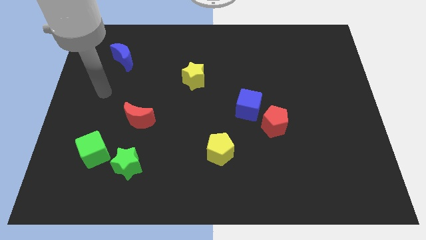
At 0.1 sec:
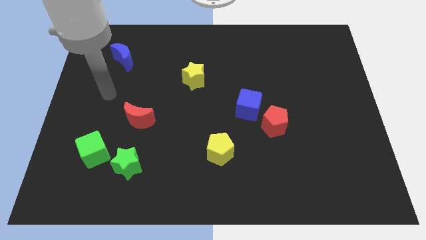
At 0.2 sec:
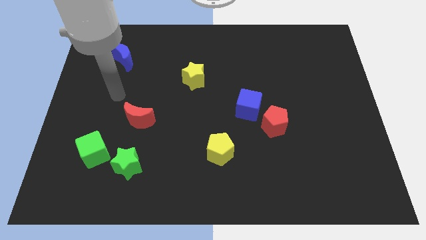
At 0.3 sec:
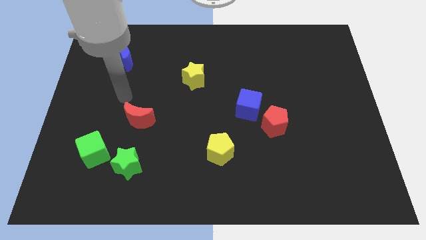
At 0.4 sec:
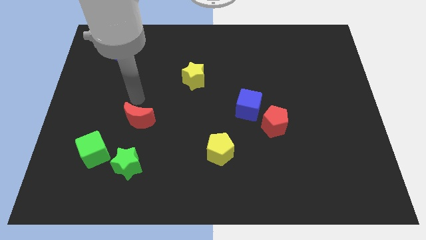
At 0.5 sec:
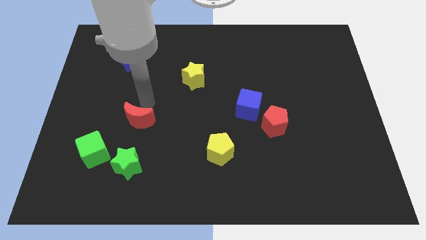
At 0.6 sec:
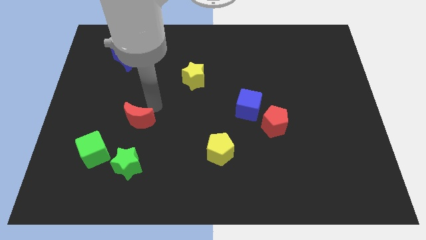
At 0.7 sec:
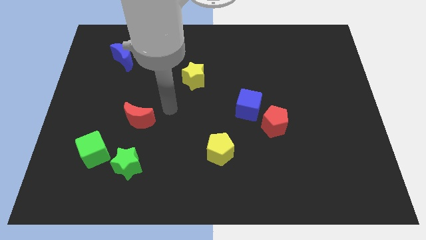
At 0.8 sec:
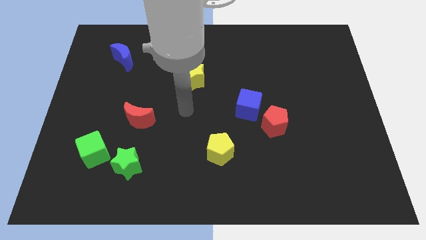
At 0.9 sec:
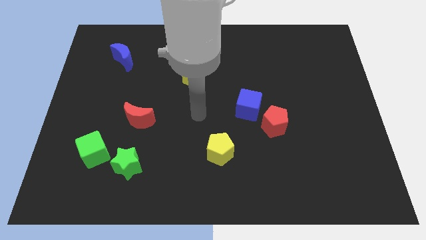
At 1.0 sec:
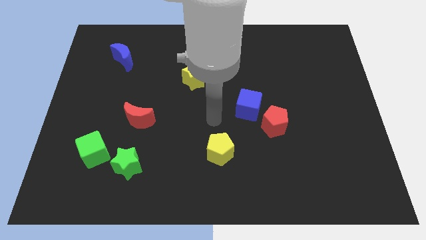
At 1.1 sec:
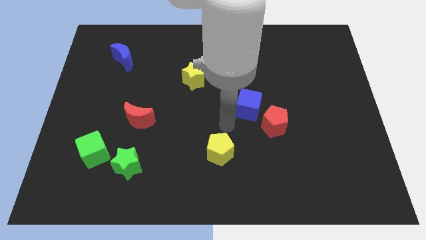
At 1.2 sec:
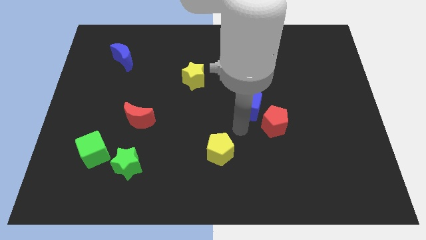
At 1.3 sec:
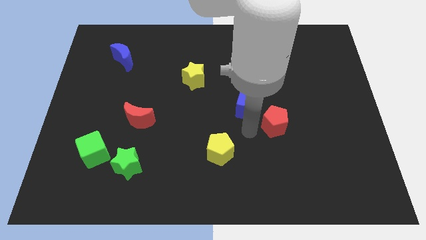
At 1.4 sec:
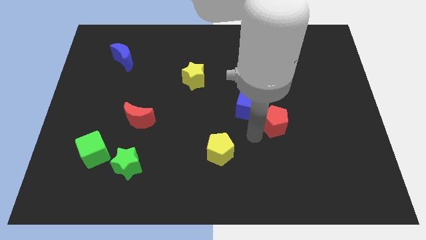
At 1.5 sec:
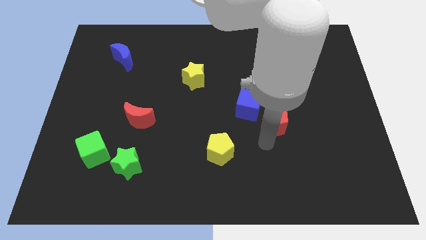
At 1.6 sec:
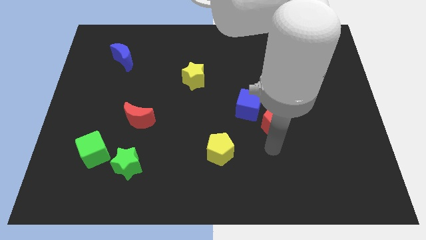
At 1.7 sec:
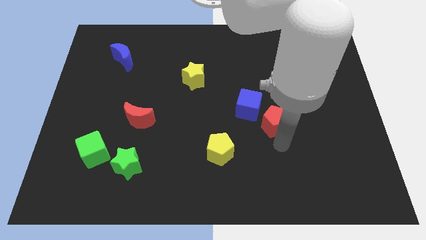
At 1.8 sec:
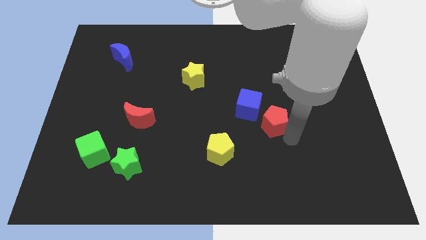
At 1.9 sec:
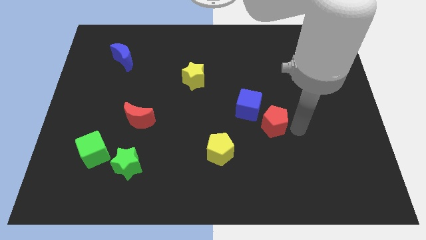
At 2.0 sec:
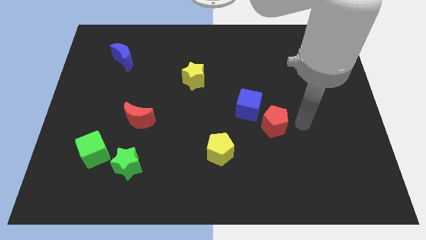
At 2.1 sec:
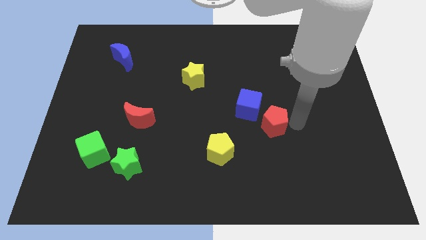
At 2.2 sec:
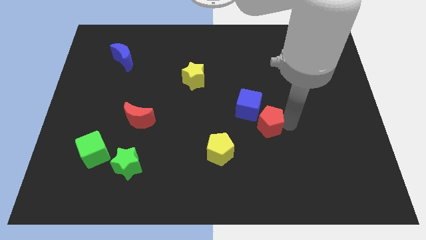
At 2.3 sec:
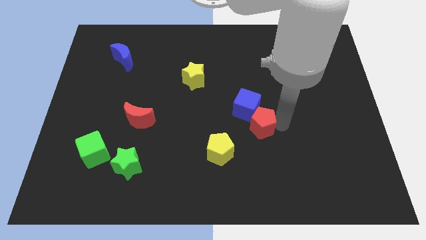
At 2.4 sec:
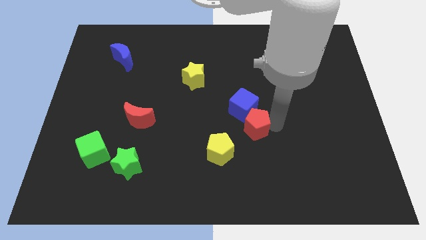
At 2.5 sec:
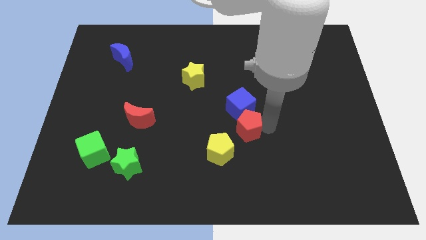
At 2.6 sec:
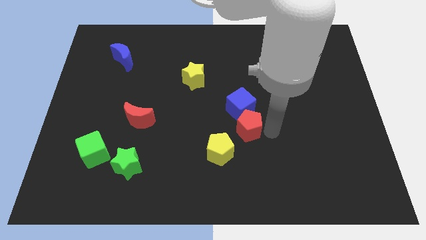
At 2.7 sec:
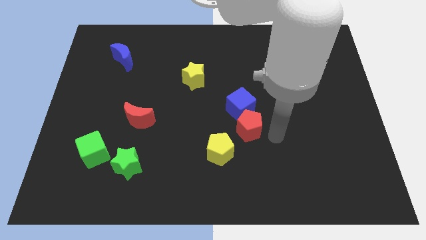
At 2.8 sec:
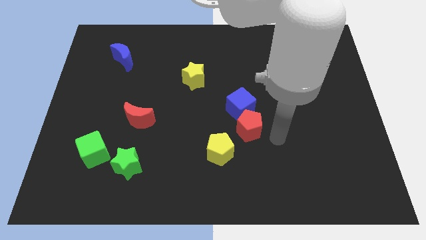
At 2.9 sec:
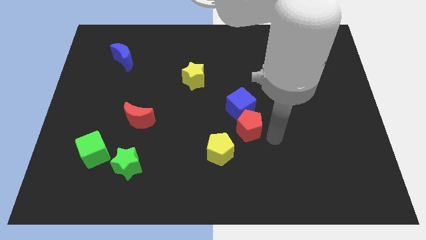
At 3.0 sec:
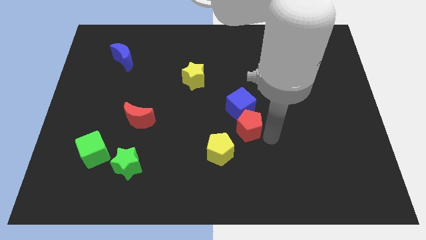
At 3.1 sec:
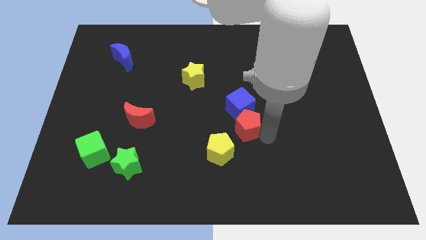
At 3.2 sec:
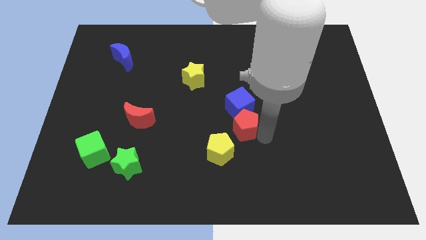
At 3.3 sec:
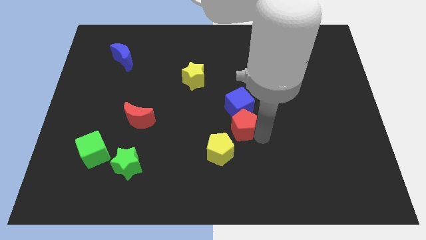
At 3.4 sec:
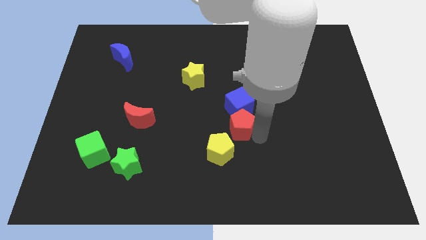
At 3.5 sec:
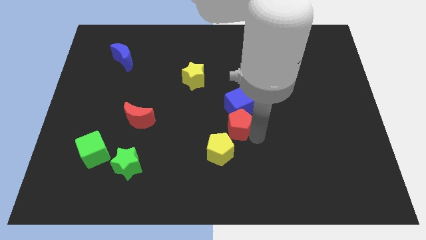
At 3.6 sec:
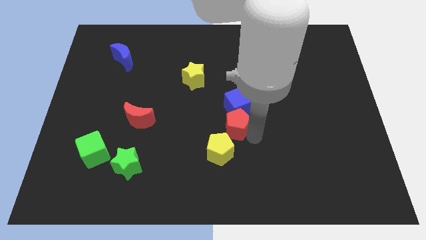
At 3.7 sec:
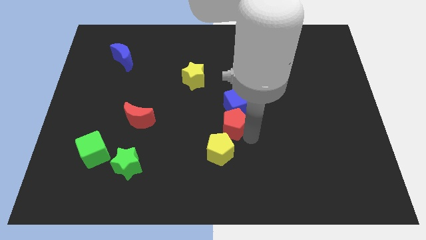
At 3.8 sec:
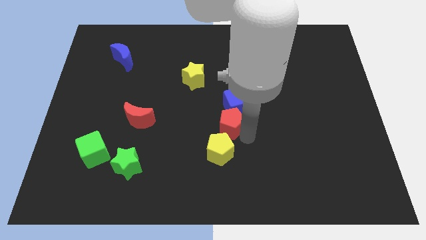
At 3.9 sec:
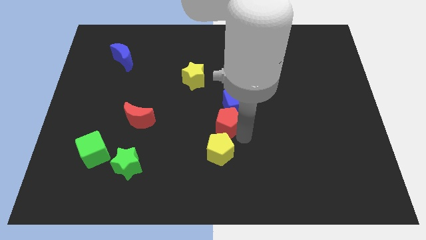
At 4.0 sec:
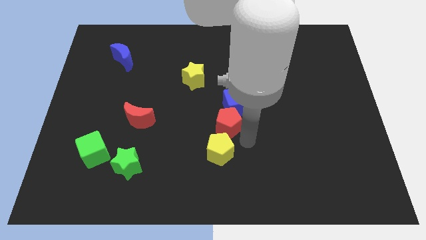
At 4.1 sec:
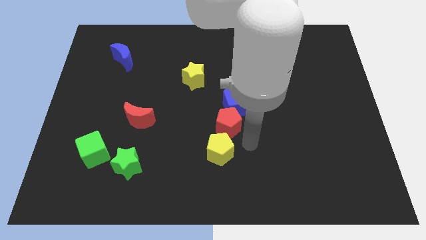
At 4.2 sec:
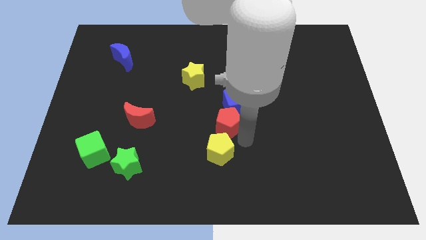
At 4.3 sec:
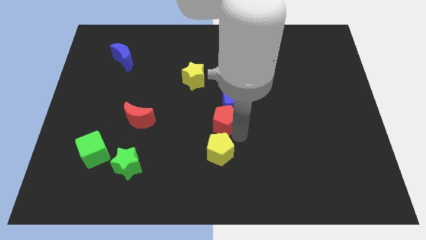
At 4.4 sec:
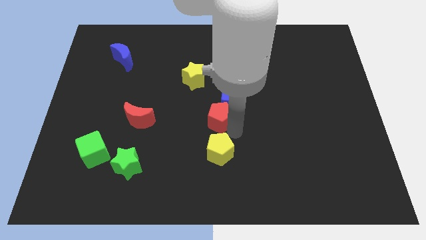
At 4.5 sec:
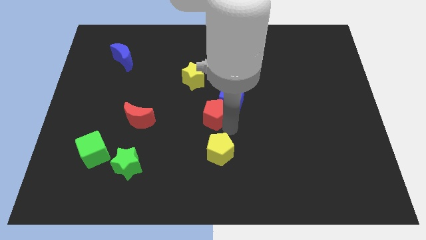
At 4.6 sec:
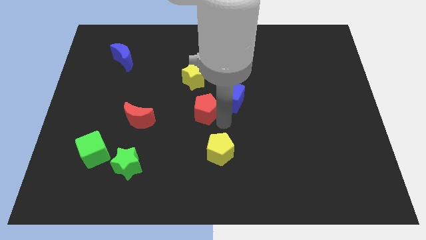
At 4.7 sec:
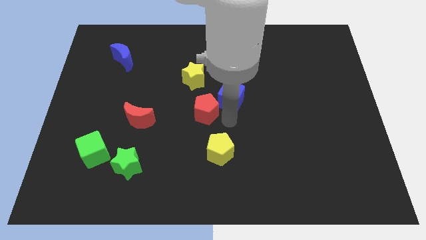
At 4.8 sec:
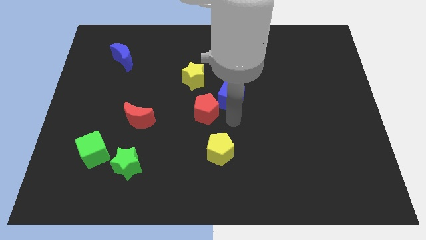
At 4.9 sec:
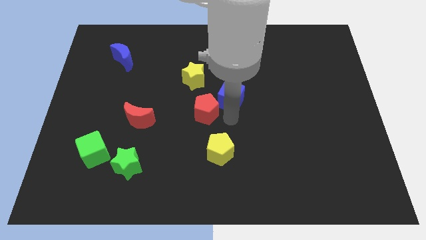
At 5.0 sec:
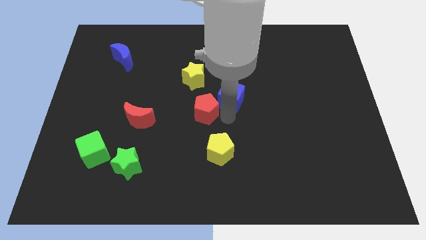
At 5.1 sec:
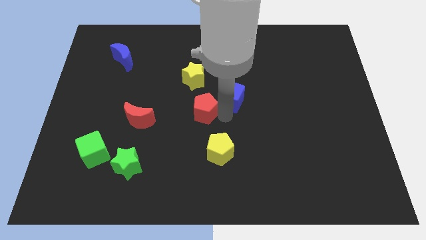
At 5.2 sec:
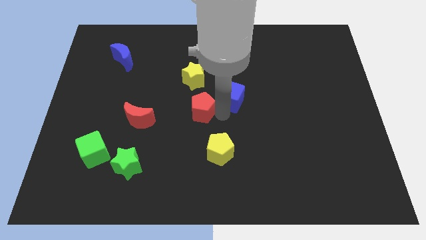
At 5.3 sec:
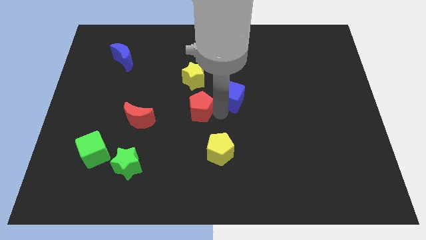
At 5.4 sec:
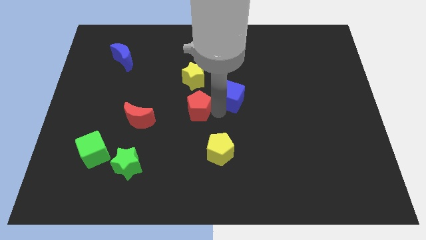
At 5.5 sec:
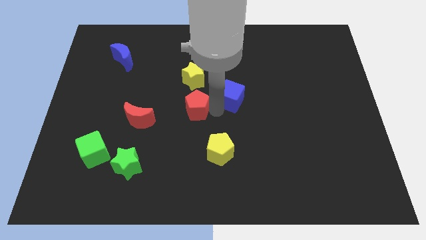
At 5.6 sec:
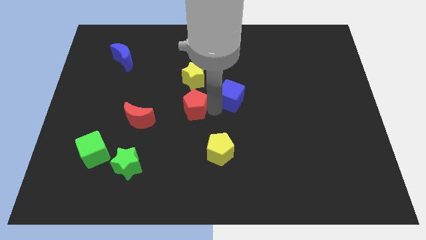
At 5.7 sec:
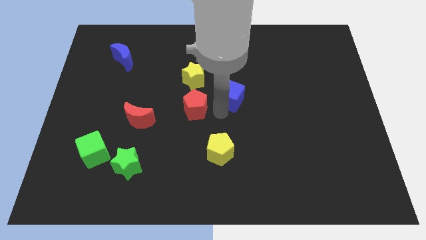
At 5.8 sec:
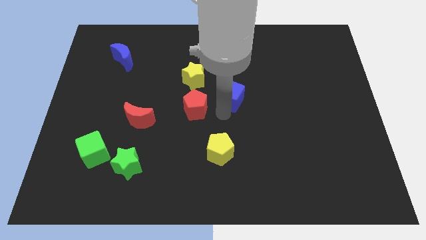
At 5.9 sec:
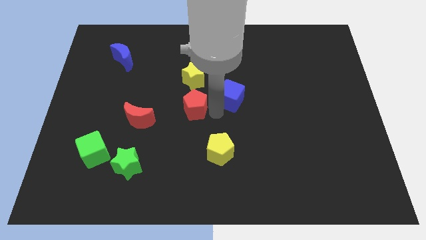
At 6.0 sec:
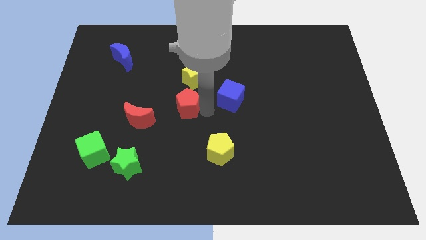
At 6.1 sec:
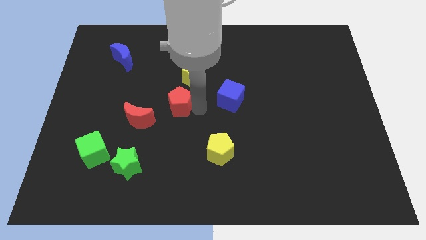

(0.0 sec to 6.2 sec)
put the red pentagon diagonally up and to the right of the red moon

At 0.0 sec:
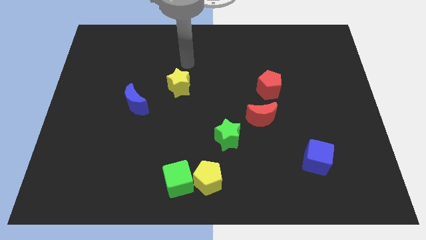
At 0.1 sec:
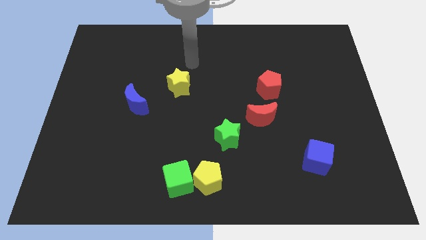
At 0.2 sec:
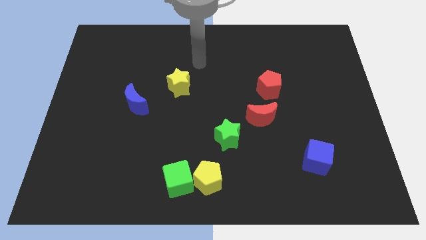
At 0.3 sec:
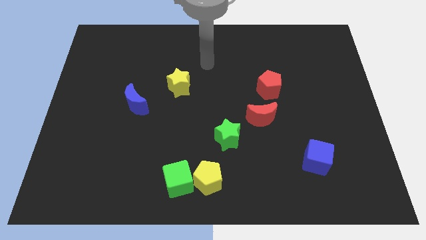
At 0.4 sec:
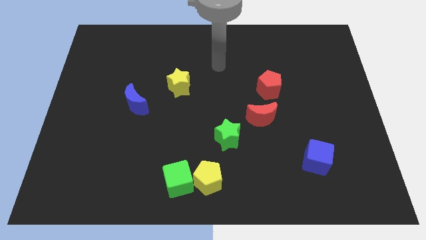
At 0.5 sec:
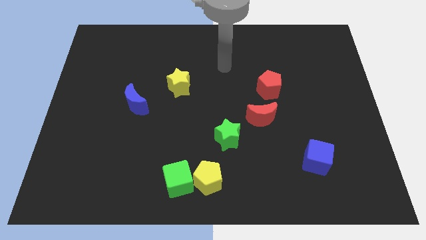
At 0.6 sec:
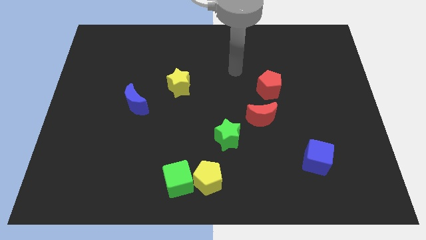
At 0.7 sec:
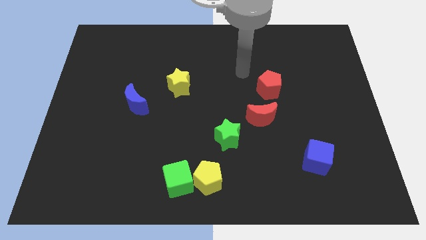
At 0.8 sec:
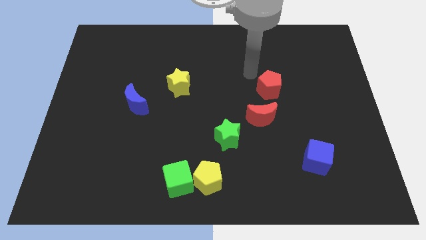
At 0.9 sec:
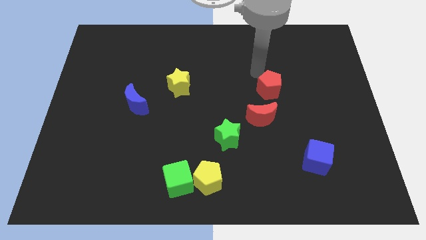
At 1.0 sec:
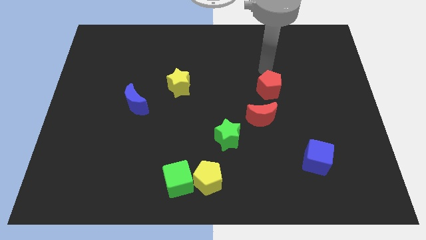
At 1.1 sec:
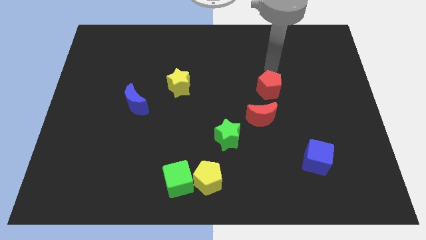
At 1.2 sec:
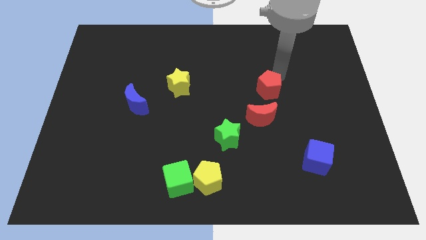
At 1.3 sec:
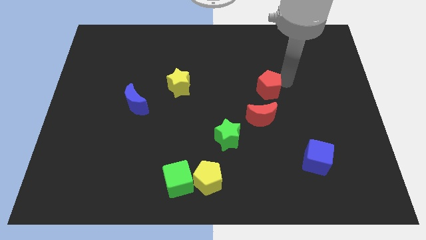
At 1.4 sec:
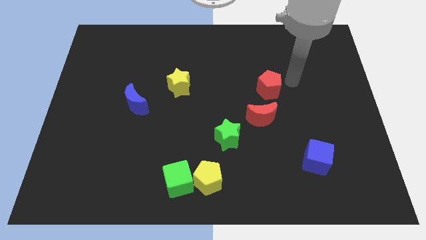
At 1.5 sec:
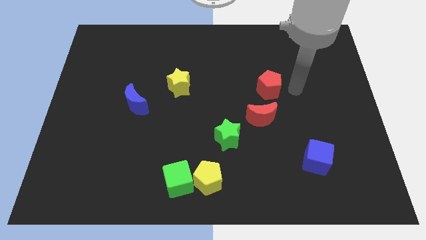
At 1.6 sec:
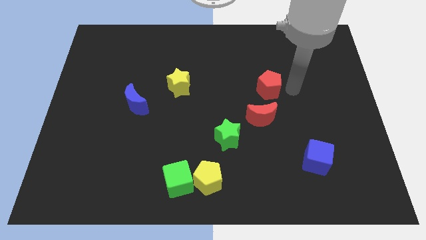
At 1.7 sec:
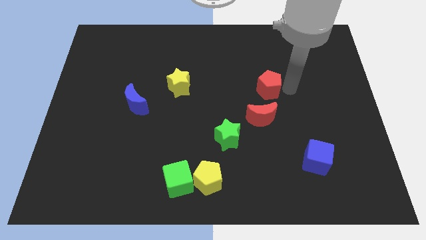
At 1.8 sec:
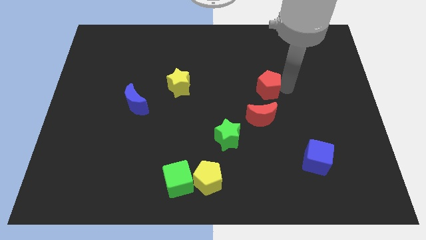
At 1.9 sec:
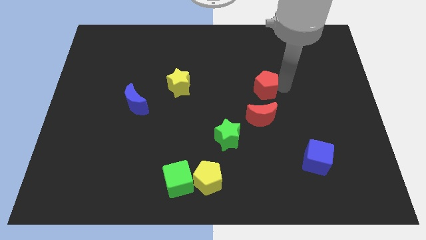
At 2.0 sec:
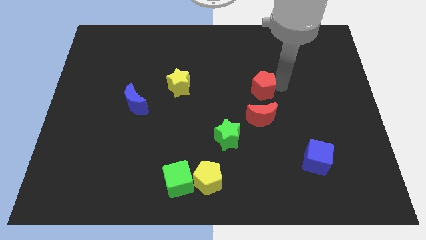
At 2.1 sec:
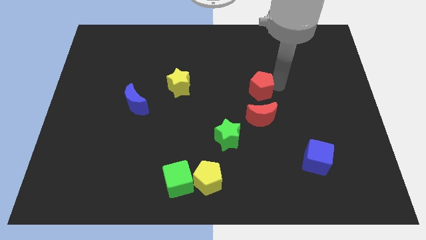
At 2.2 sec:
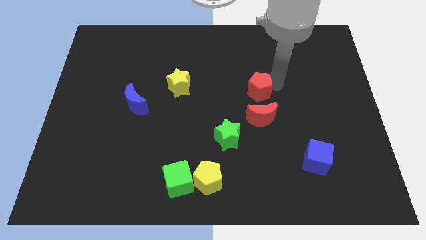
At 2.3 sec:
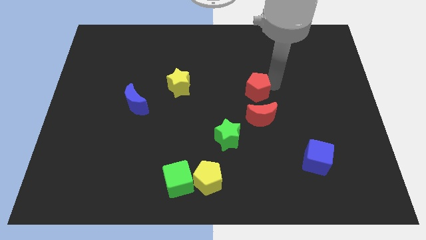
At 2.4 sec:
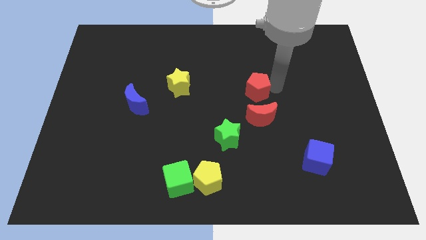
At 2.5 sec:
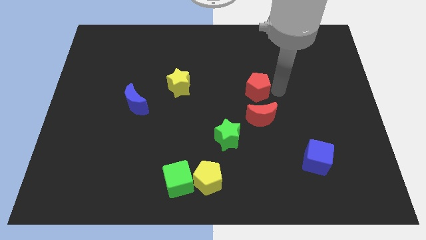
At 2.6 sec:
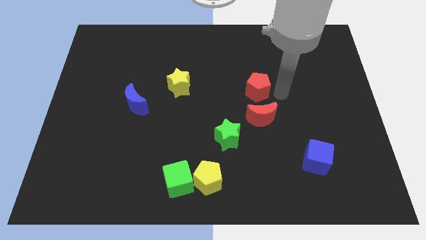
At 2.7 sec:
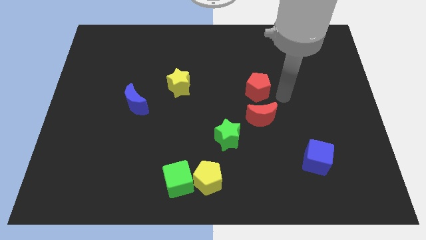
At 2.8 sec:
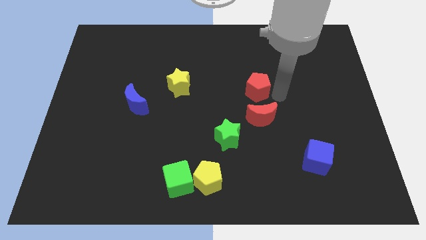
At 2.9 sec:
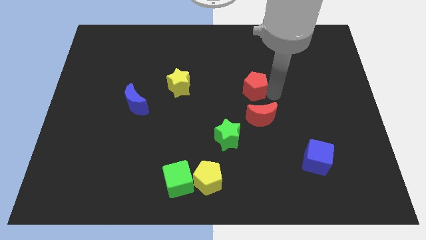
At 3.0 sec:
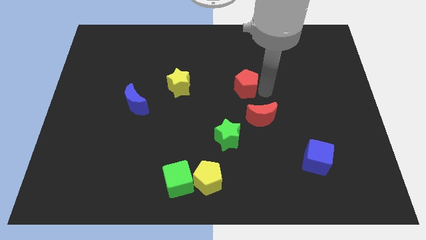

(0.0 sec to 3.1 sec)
move the red pentagon to the right of the yellow star
